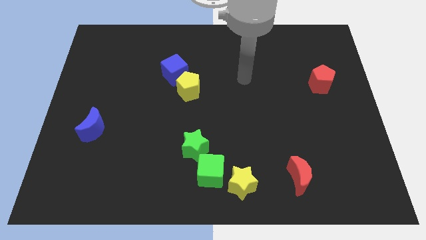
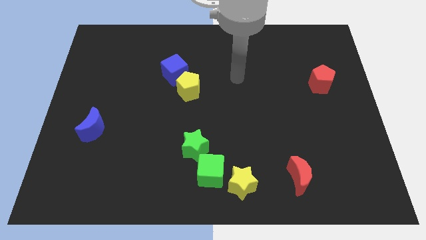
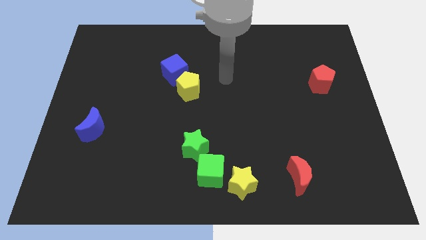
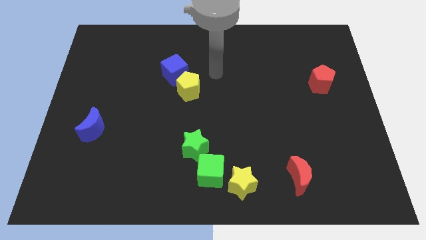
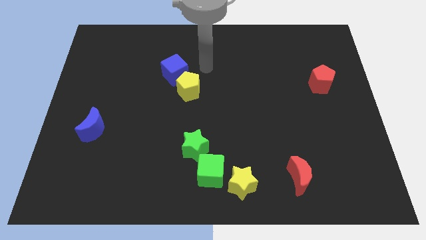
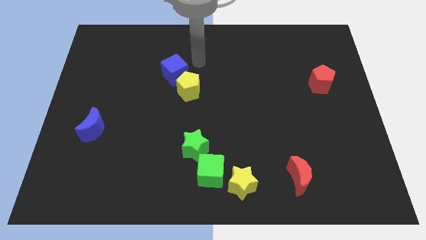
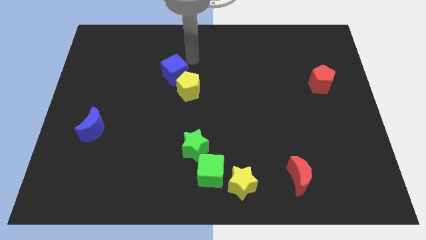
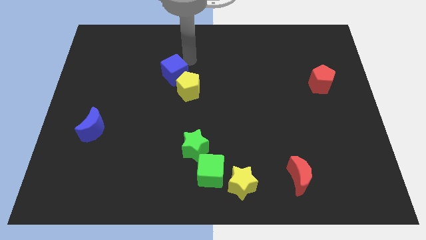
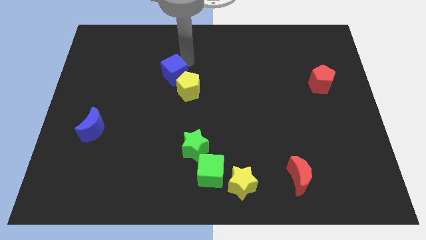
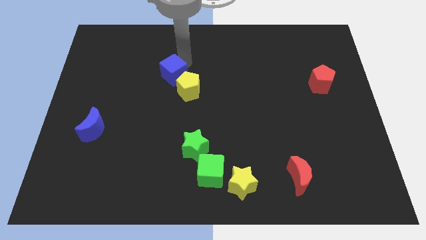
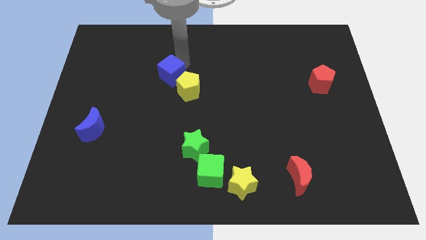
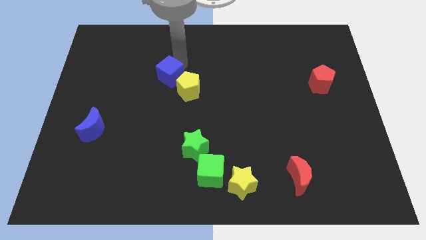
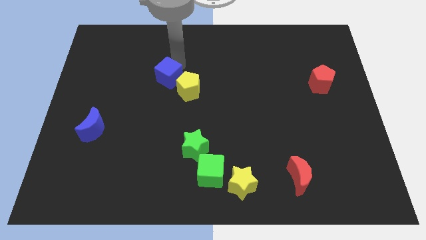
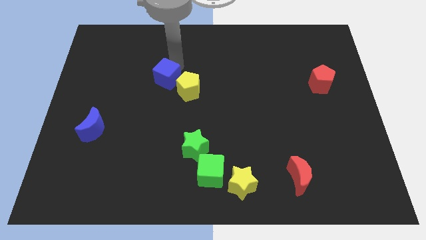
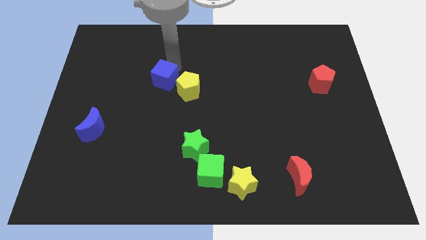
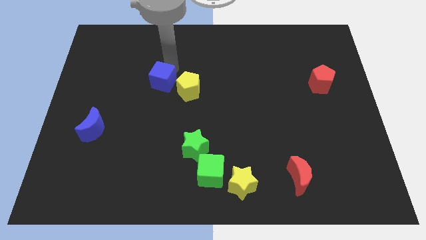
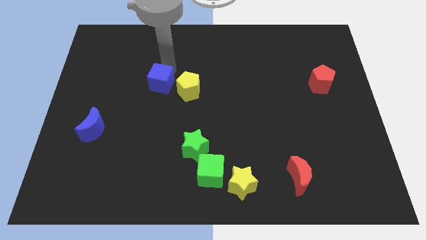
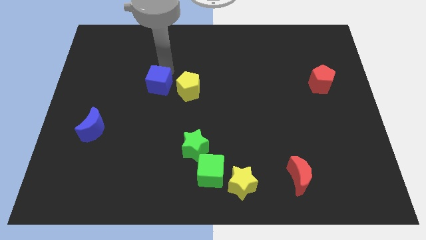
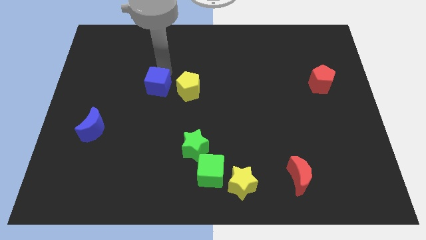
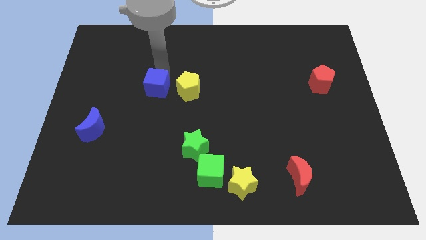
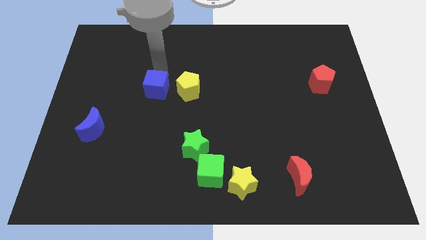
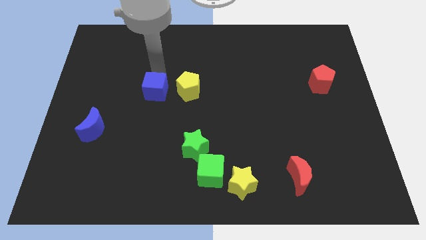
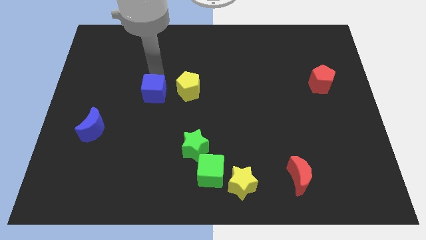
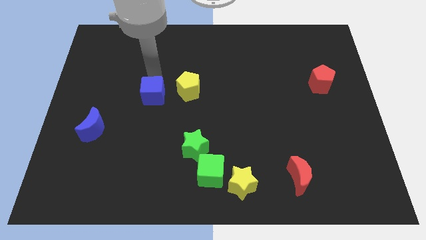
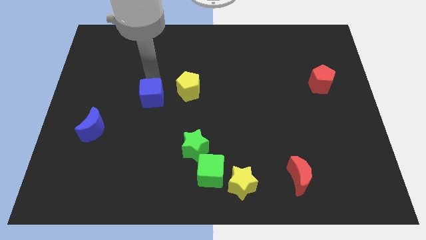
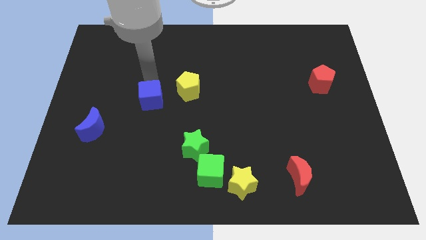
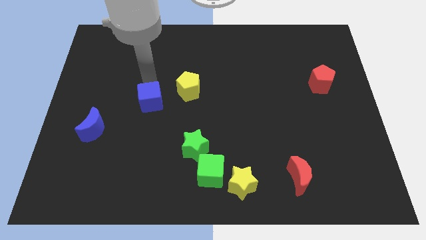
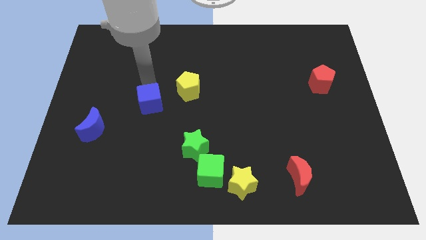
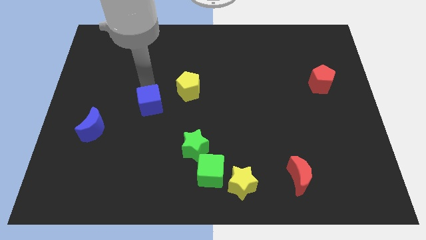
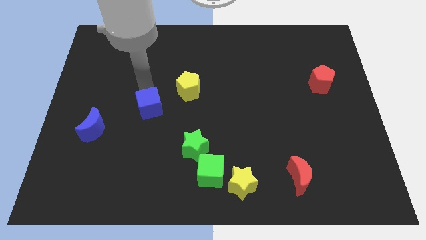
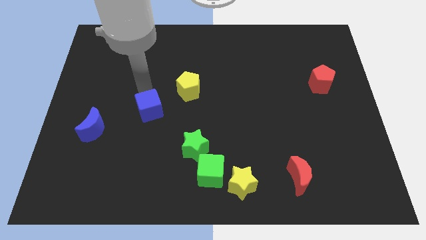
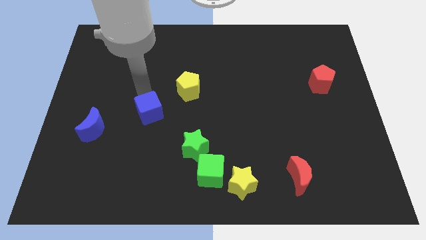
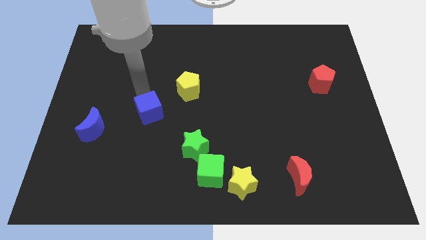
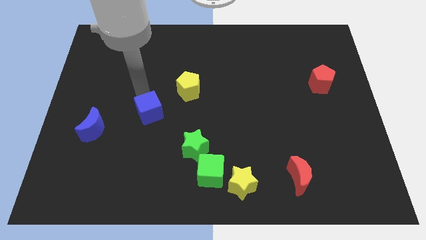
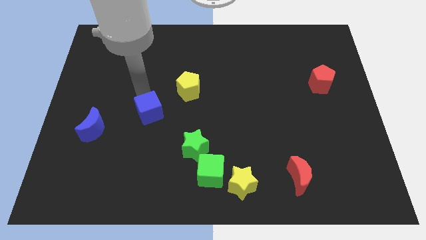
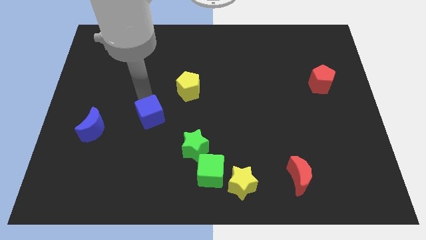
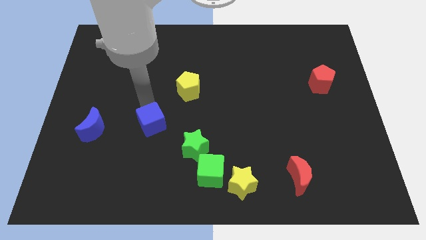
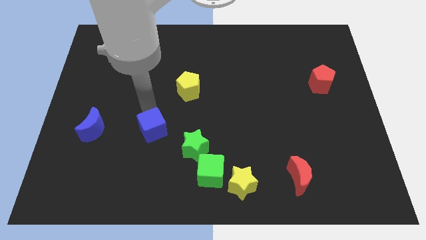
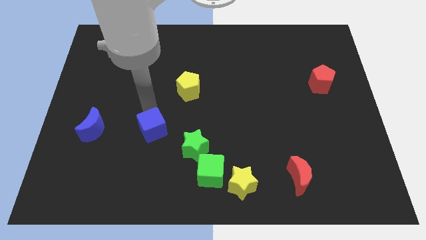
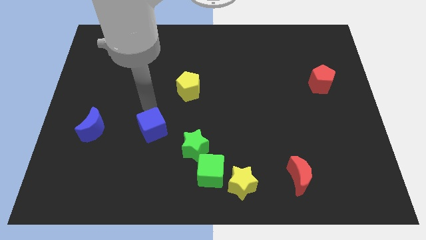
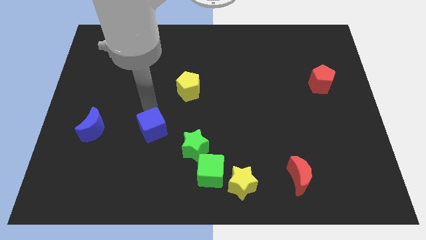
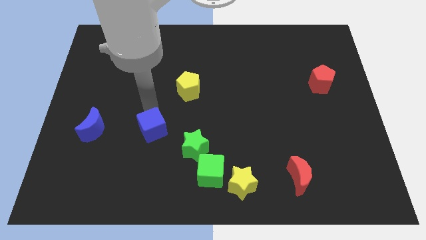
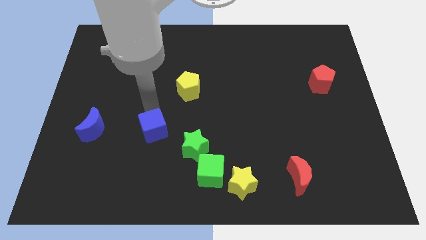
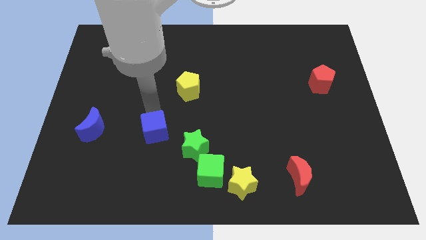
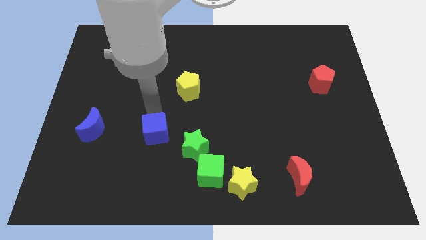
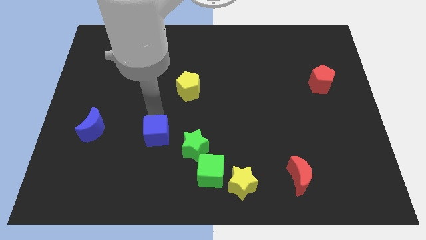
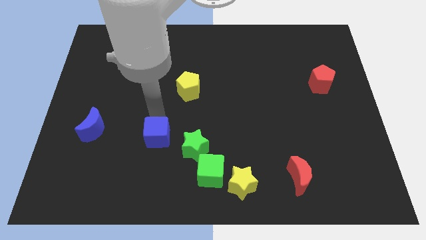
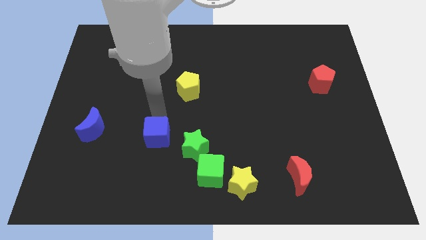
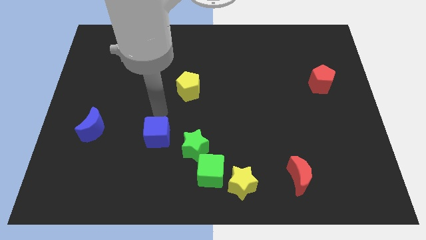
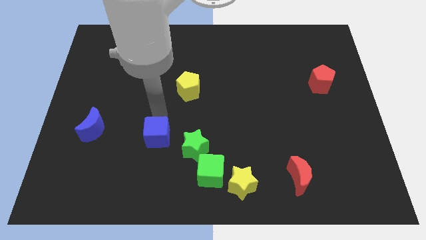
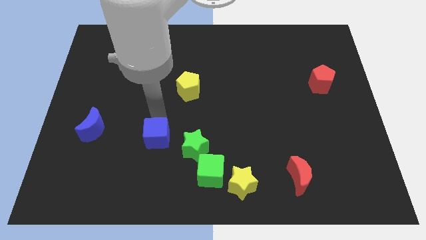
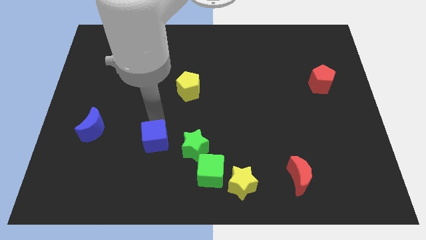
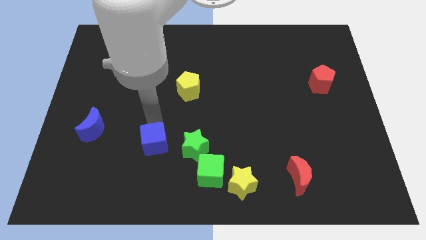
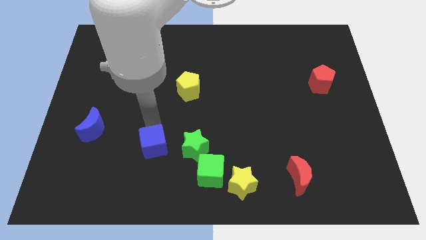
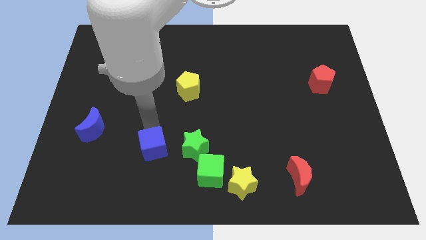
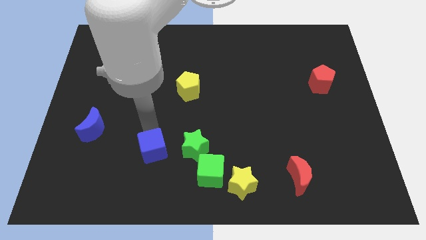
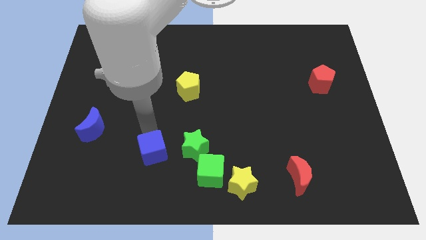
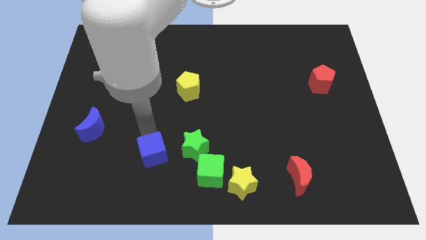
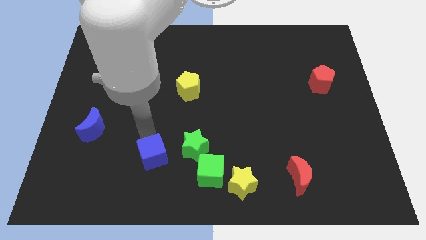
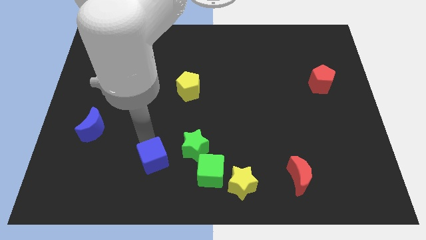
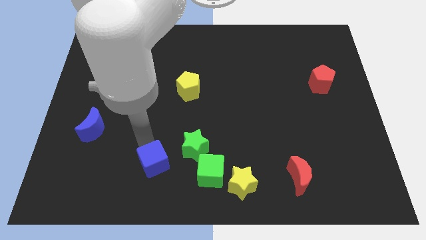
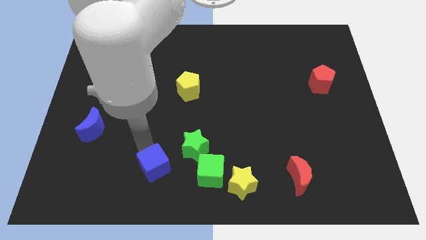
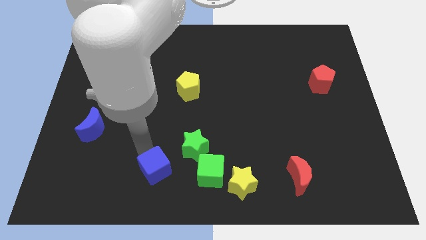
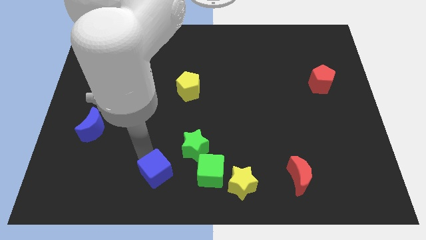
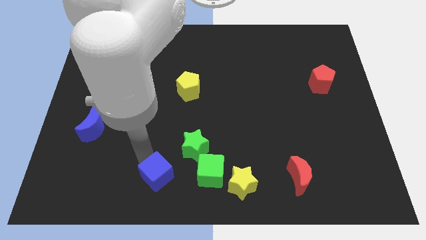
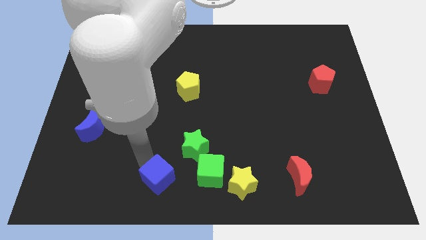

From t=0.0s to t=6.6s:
push the blue cube to the bottom
